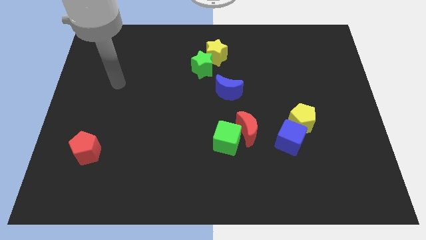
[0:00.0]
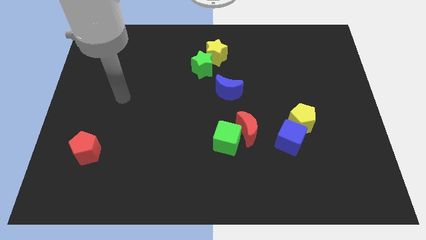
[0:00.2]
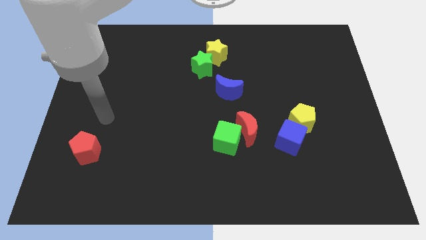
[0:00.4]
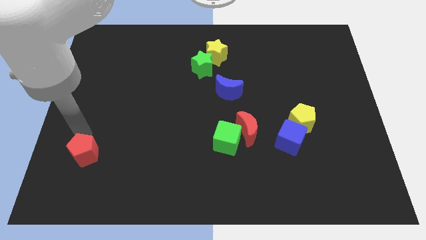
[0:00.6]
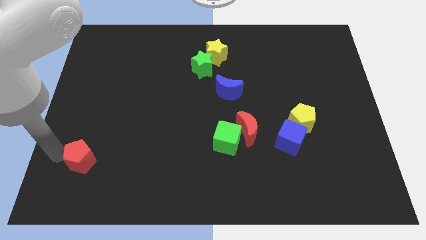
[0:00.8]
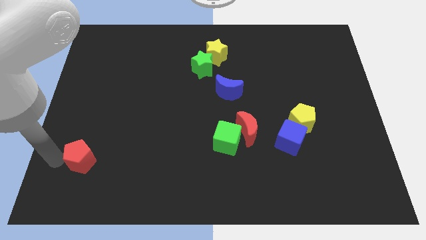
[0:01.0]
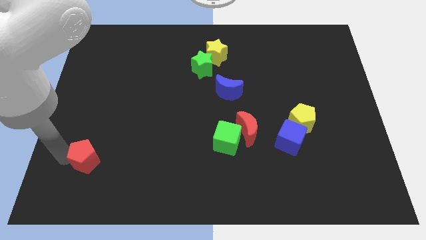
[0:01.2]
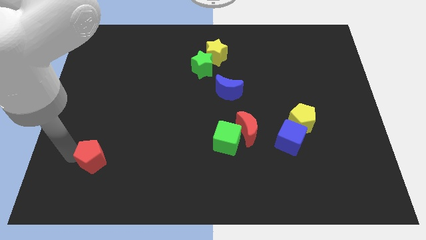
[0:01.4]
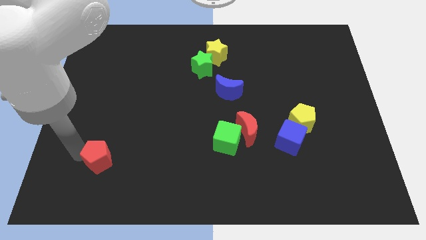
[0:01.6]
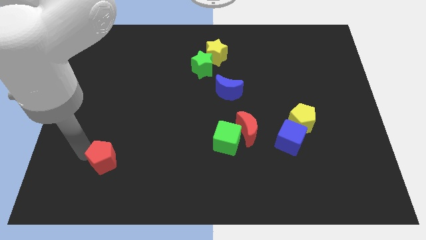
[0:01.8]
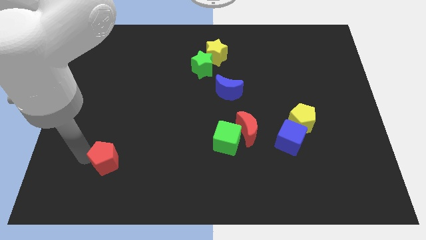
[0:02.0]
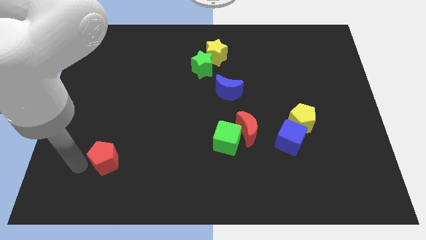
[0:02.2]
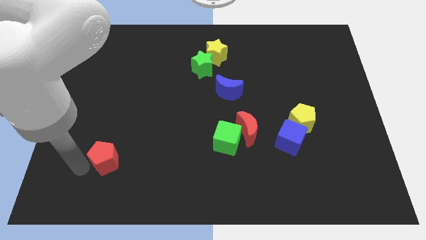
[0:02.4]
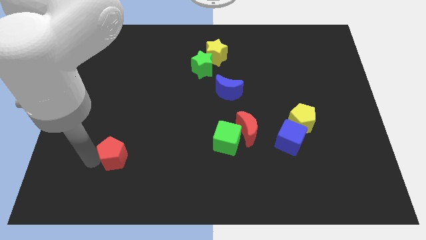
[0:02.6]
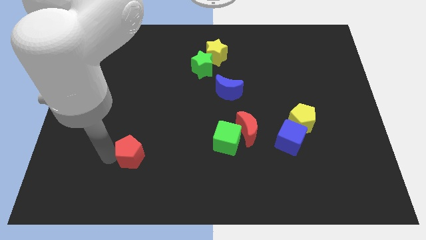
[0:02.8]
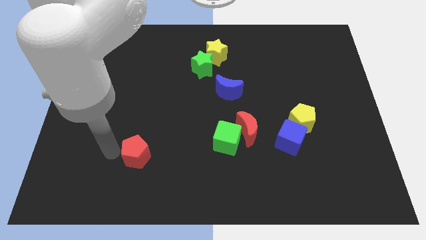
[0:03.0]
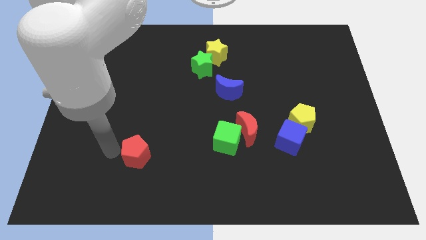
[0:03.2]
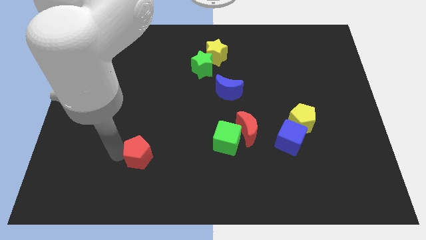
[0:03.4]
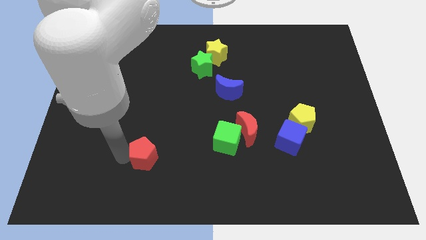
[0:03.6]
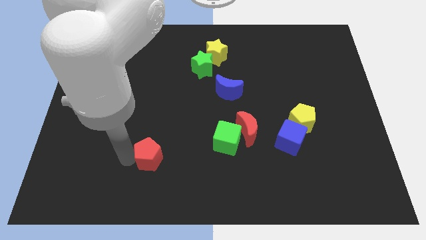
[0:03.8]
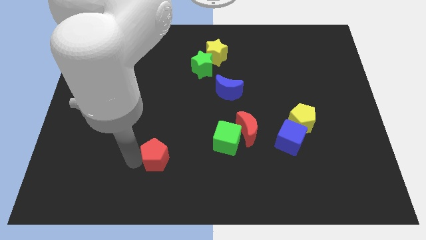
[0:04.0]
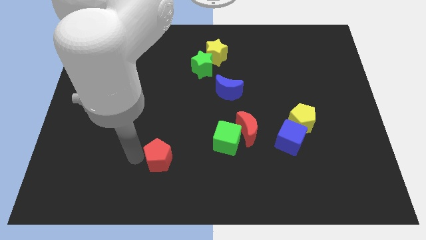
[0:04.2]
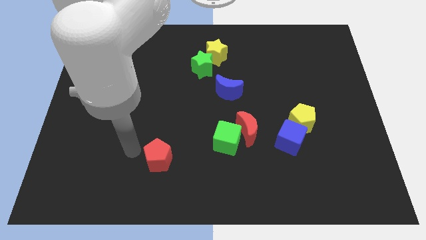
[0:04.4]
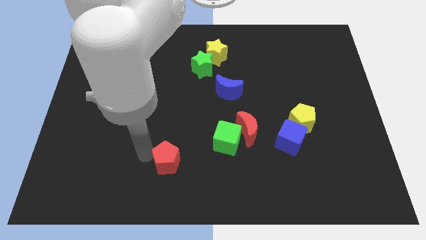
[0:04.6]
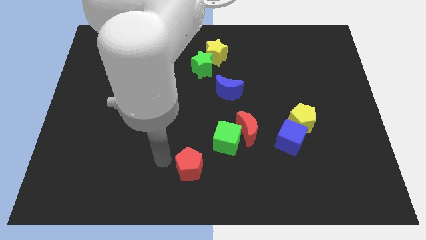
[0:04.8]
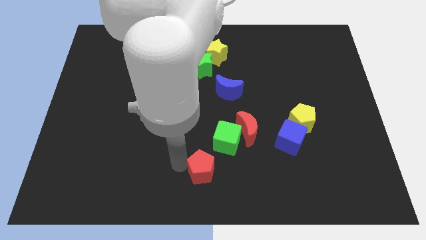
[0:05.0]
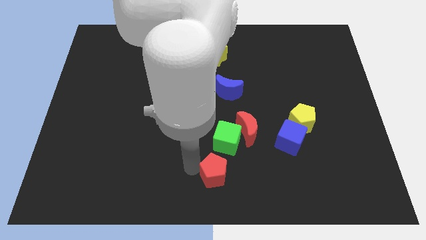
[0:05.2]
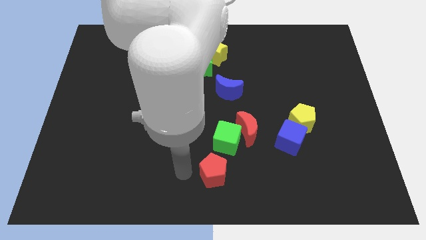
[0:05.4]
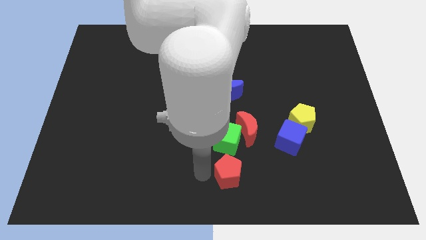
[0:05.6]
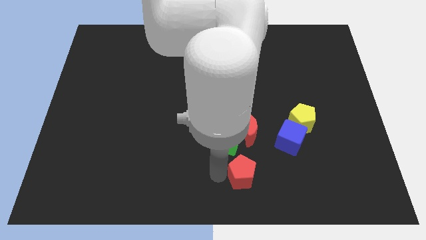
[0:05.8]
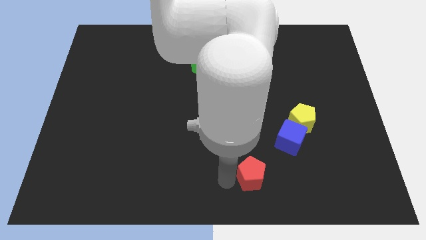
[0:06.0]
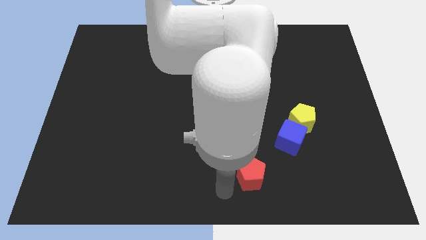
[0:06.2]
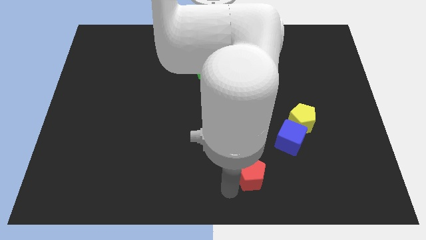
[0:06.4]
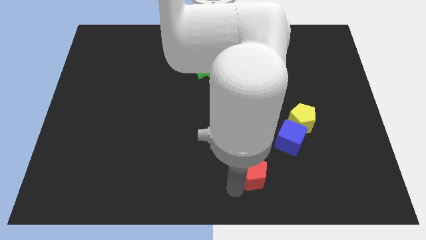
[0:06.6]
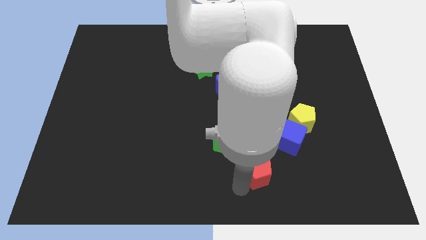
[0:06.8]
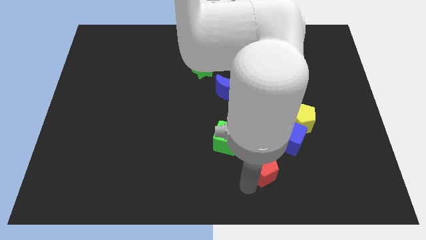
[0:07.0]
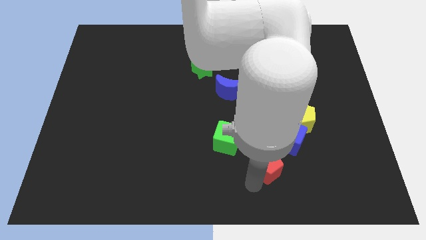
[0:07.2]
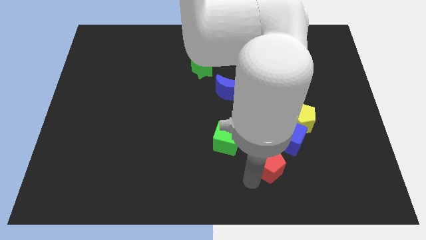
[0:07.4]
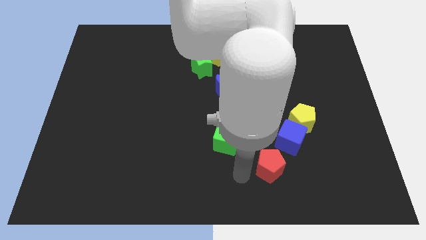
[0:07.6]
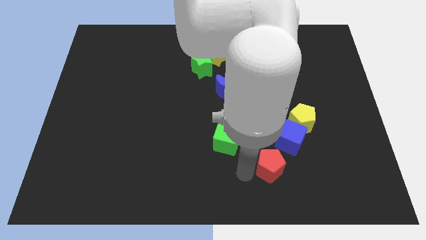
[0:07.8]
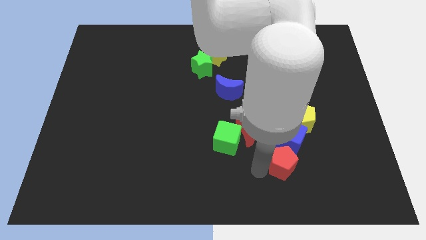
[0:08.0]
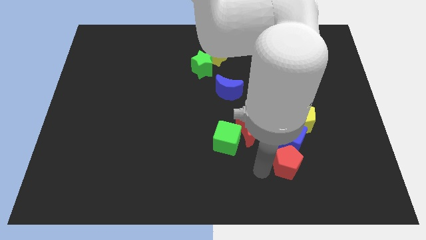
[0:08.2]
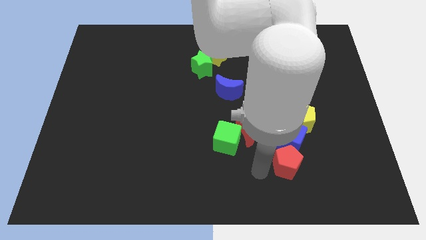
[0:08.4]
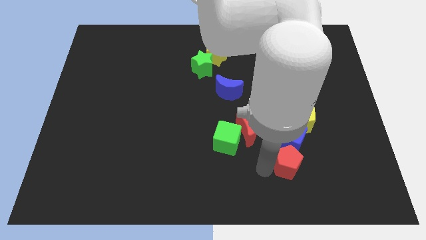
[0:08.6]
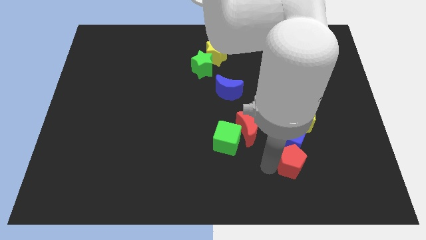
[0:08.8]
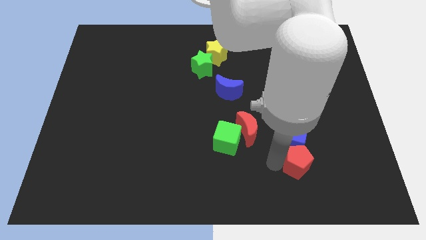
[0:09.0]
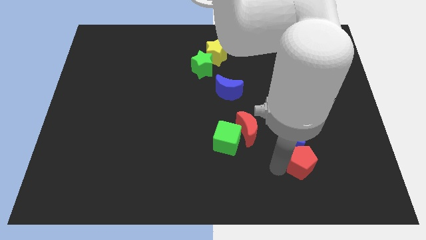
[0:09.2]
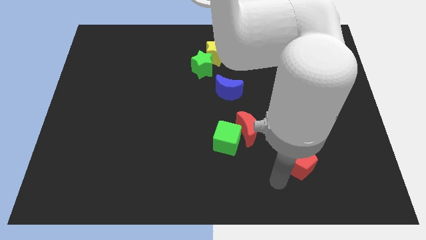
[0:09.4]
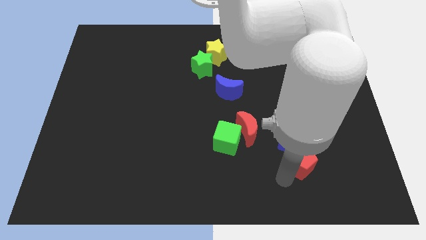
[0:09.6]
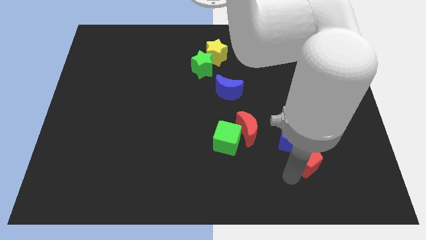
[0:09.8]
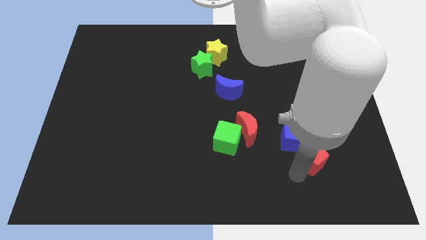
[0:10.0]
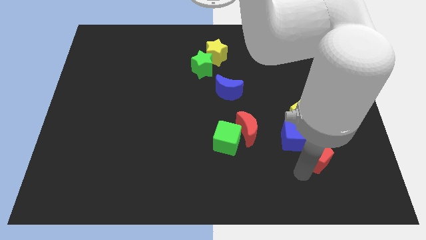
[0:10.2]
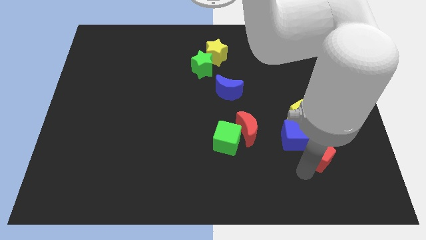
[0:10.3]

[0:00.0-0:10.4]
put the red pentagon just right of the blue cube

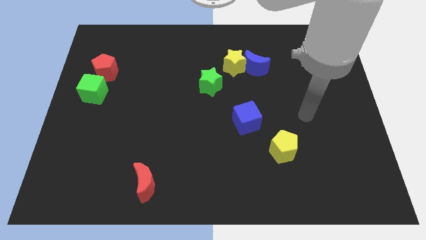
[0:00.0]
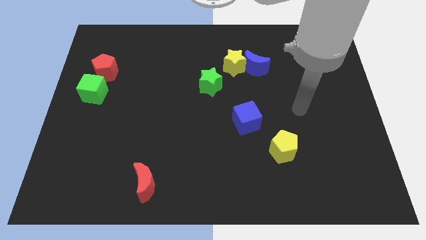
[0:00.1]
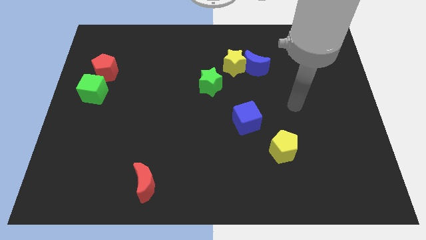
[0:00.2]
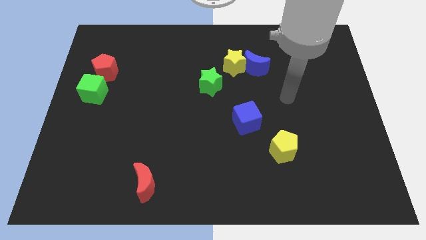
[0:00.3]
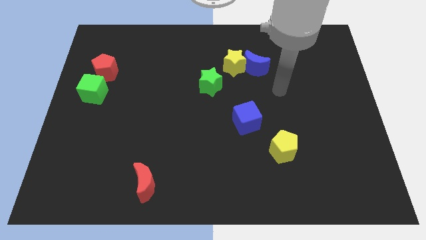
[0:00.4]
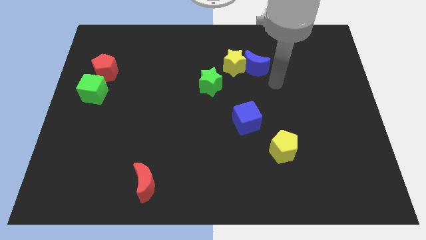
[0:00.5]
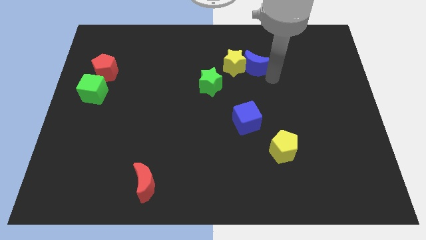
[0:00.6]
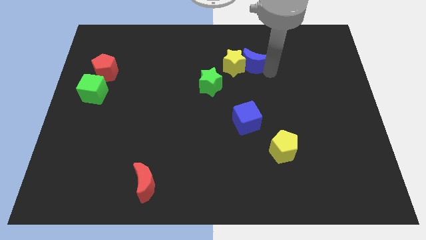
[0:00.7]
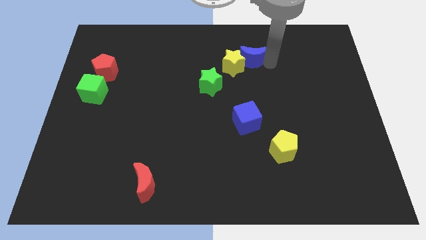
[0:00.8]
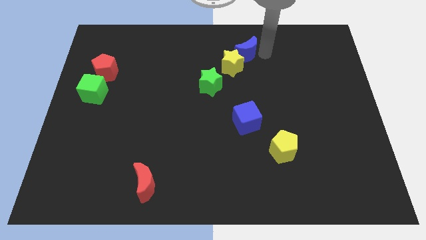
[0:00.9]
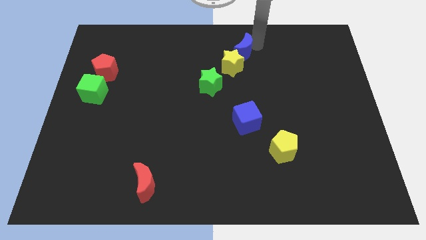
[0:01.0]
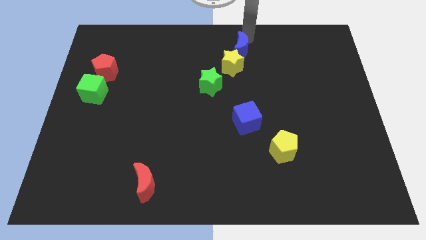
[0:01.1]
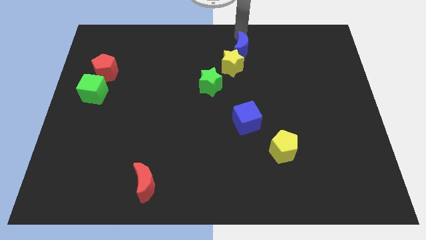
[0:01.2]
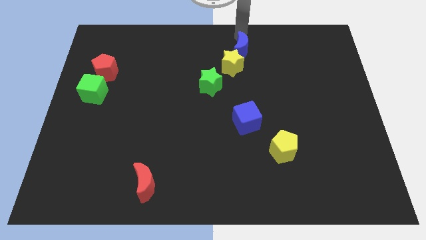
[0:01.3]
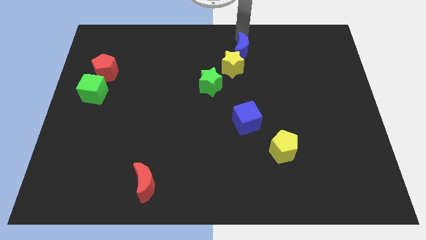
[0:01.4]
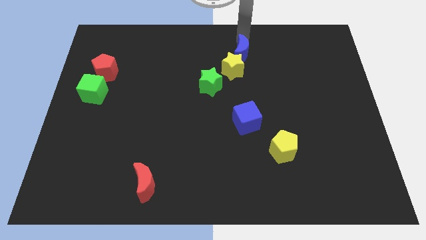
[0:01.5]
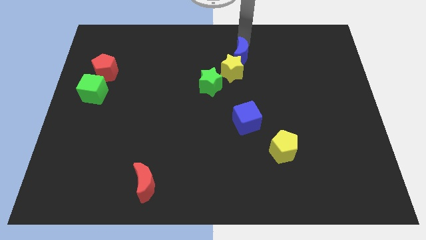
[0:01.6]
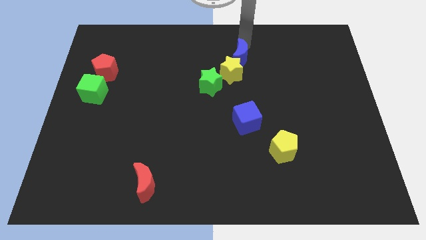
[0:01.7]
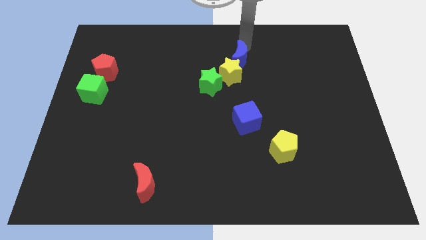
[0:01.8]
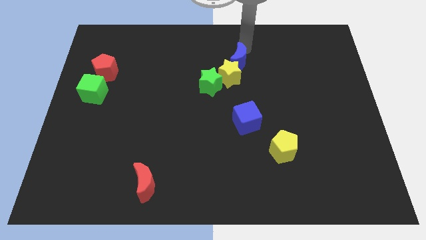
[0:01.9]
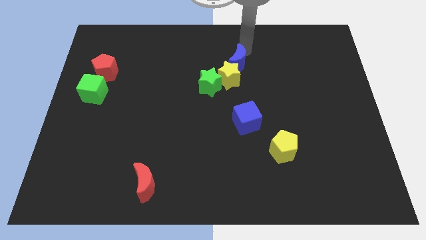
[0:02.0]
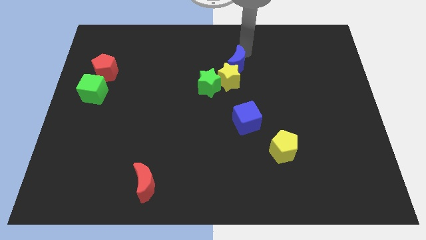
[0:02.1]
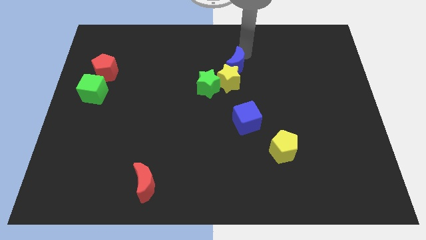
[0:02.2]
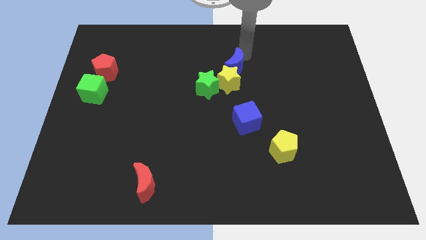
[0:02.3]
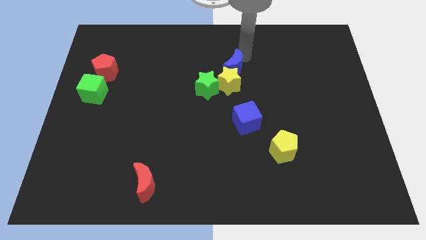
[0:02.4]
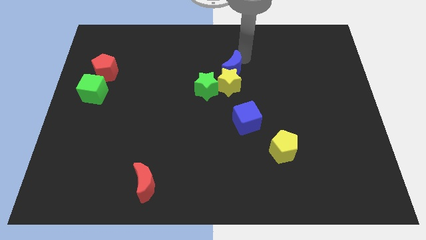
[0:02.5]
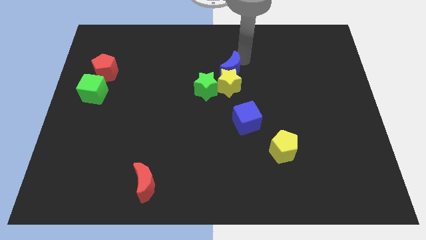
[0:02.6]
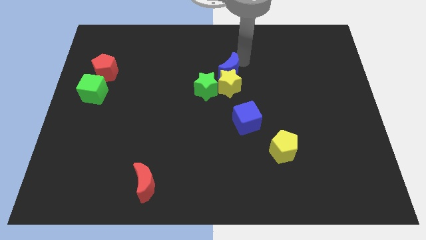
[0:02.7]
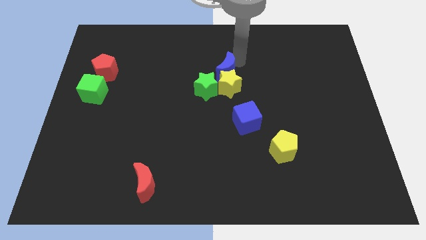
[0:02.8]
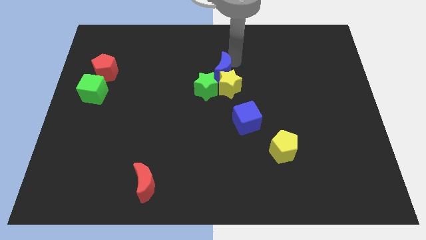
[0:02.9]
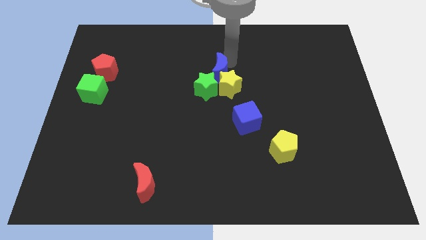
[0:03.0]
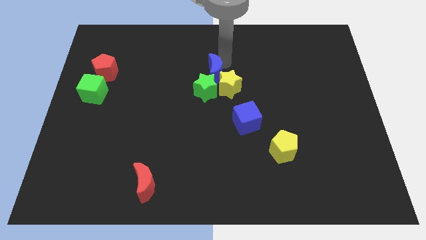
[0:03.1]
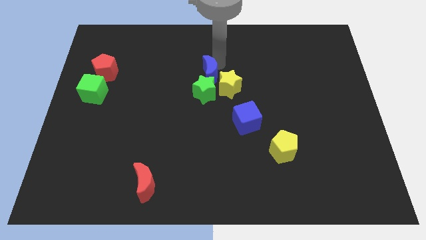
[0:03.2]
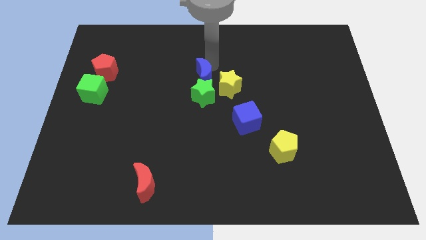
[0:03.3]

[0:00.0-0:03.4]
push the blue moon to the top left side of the green star
